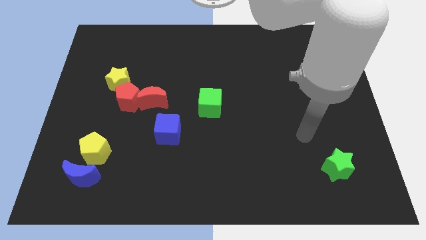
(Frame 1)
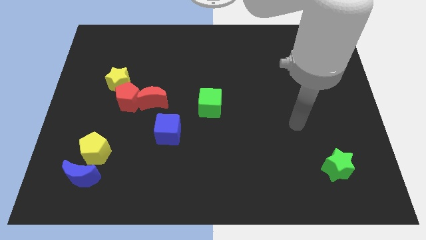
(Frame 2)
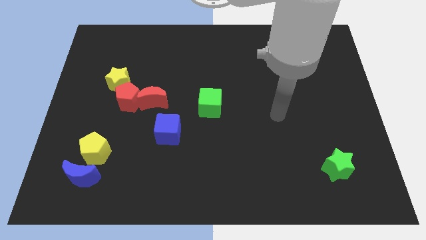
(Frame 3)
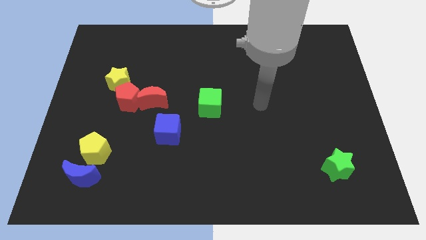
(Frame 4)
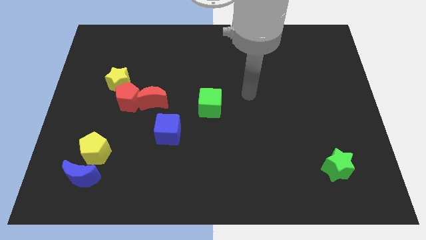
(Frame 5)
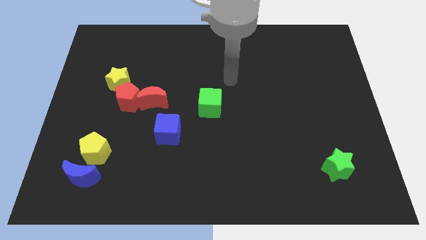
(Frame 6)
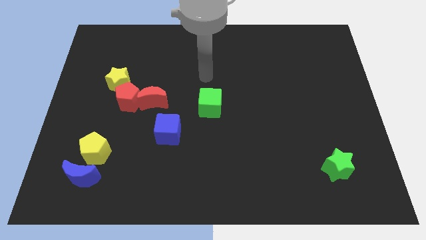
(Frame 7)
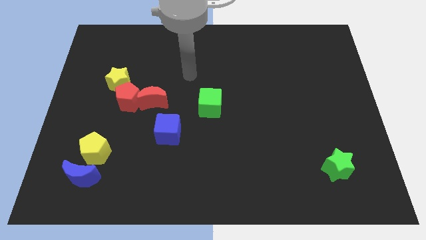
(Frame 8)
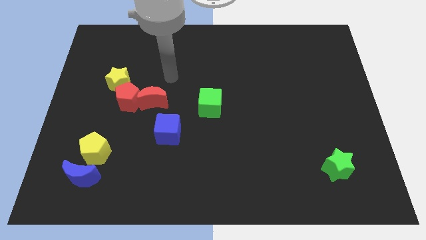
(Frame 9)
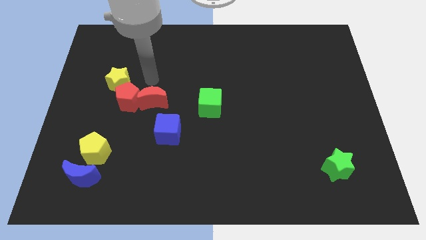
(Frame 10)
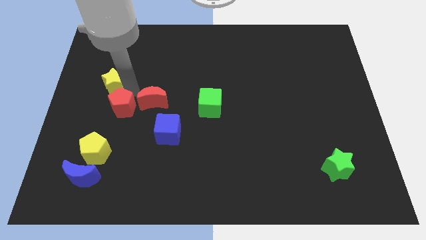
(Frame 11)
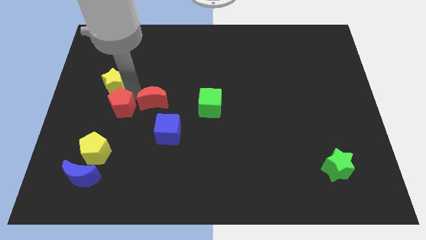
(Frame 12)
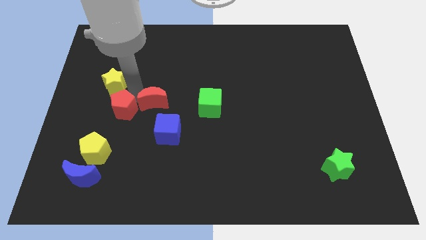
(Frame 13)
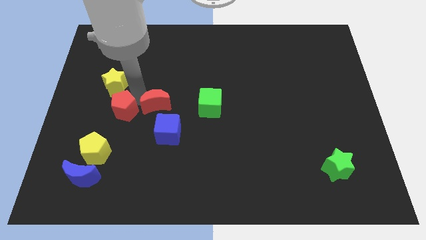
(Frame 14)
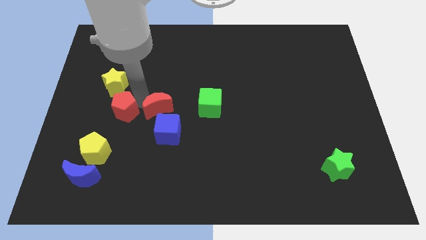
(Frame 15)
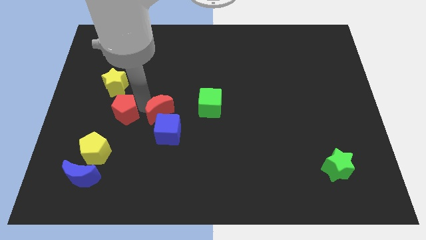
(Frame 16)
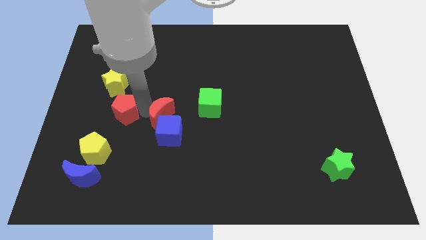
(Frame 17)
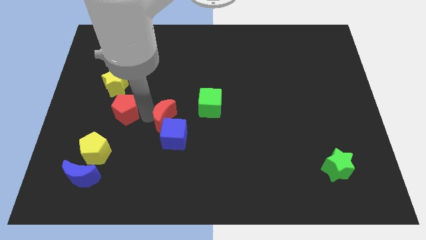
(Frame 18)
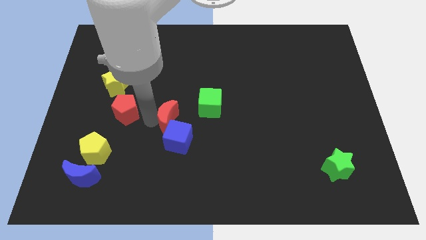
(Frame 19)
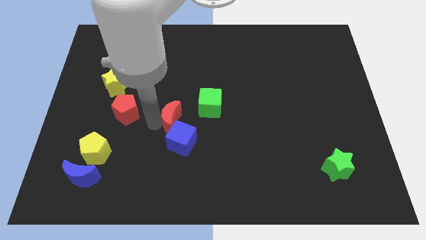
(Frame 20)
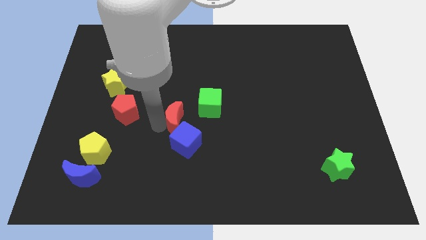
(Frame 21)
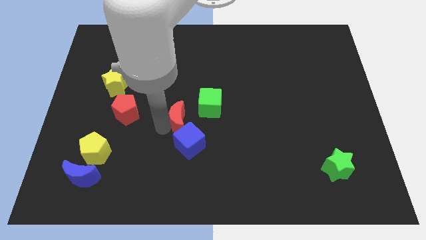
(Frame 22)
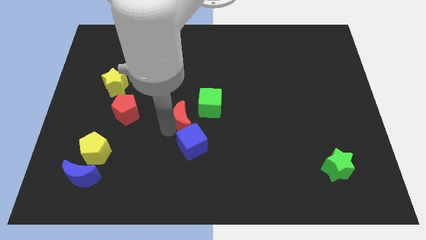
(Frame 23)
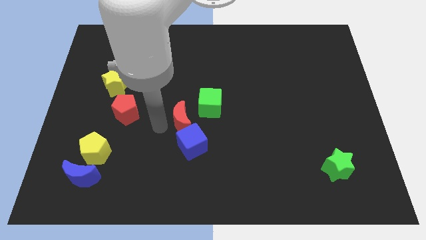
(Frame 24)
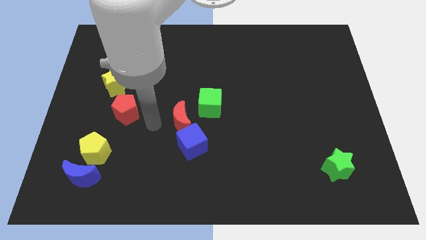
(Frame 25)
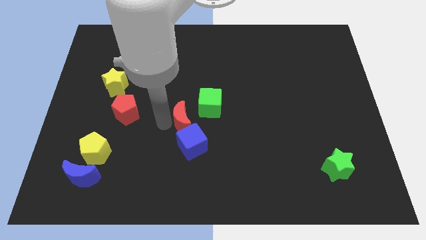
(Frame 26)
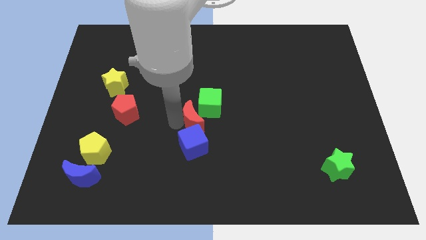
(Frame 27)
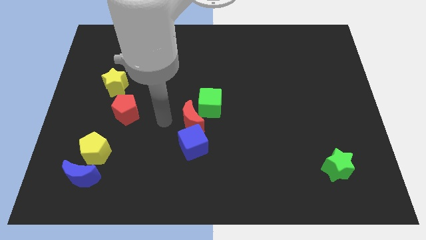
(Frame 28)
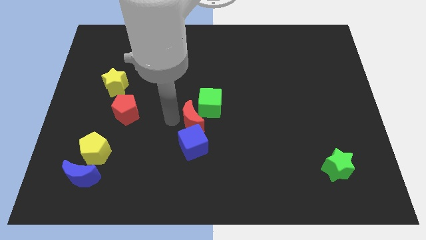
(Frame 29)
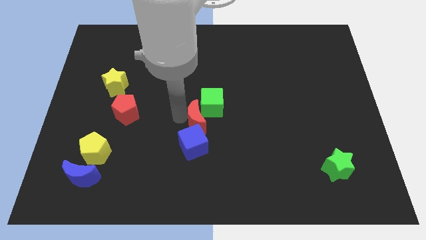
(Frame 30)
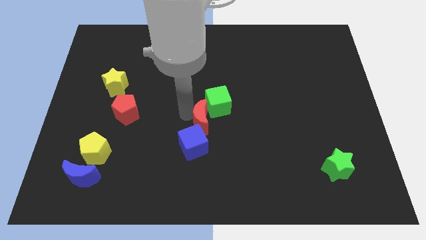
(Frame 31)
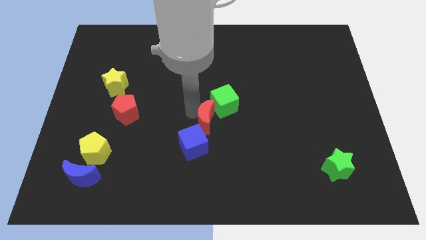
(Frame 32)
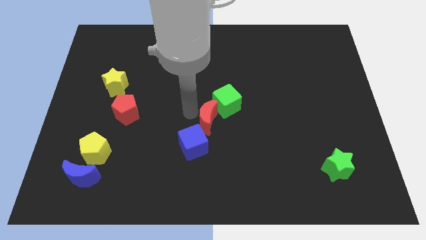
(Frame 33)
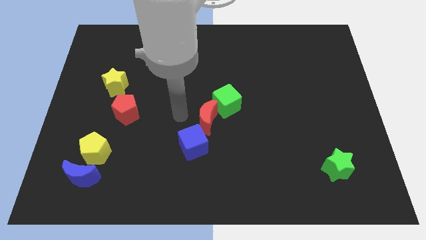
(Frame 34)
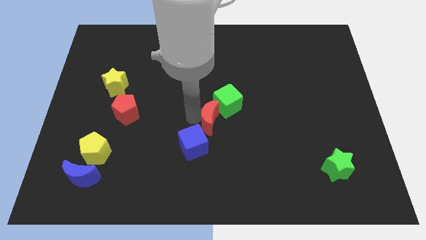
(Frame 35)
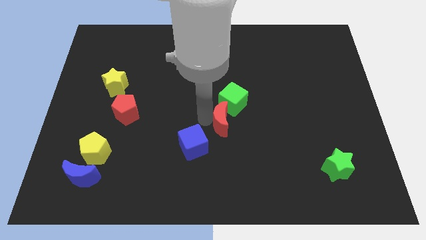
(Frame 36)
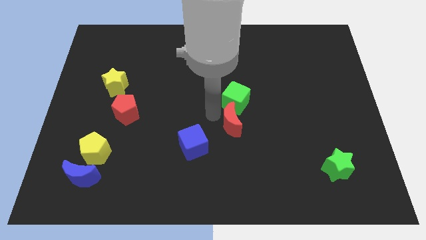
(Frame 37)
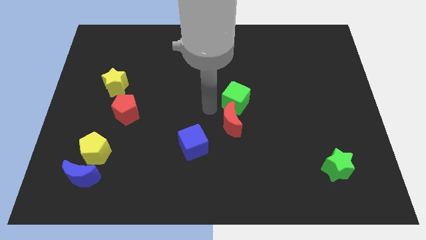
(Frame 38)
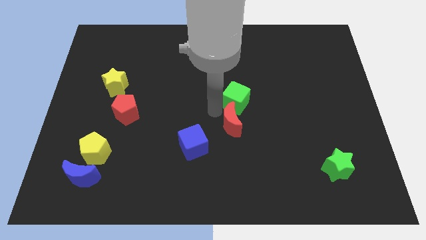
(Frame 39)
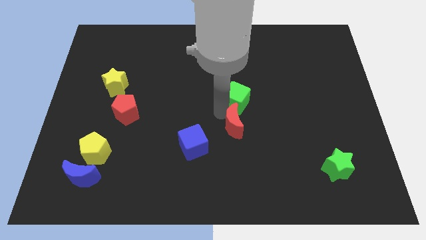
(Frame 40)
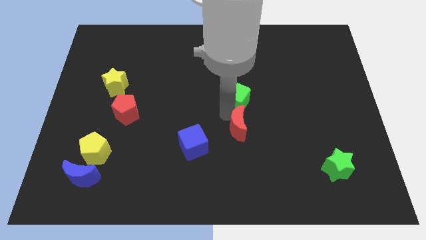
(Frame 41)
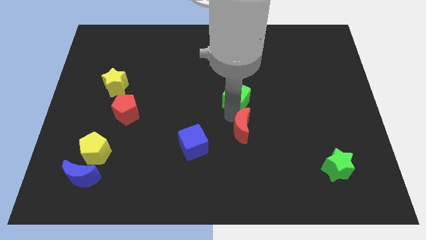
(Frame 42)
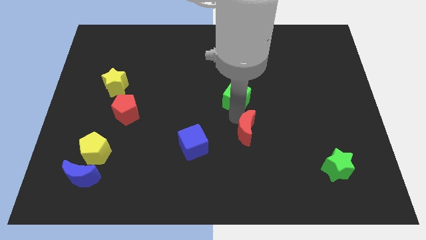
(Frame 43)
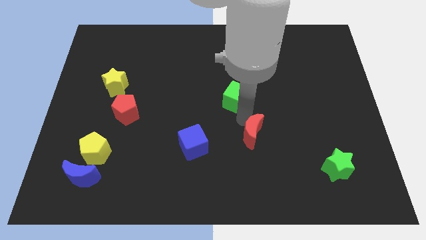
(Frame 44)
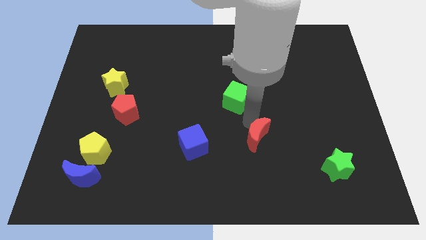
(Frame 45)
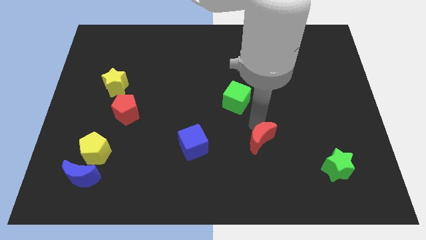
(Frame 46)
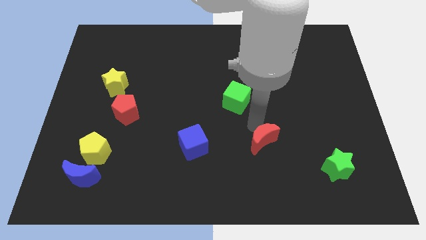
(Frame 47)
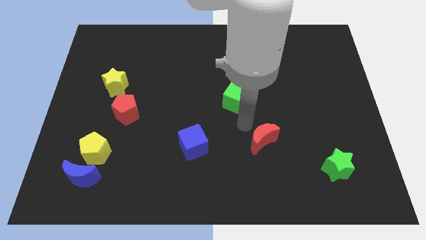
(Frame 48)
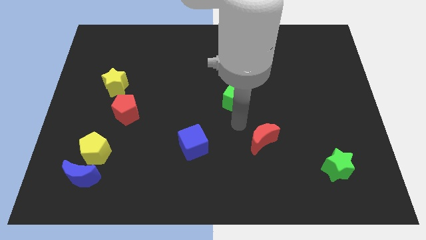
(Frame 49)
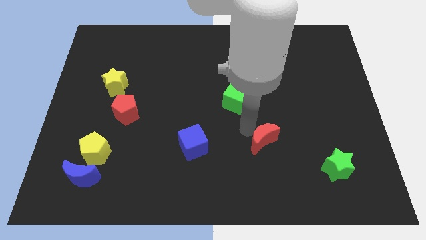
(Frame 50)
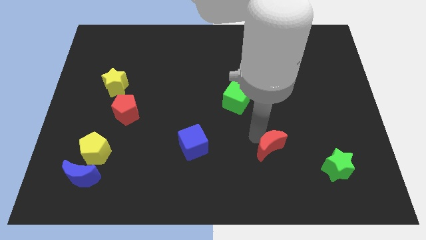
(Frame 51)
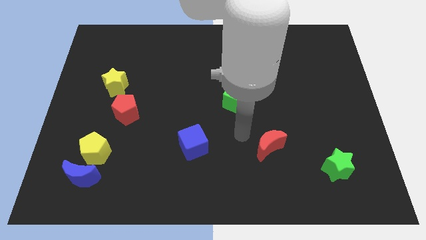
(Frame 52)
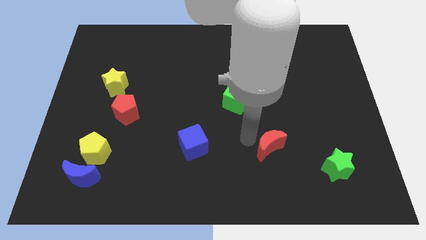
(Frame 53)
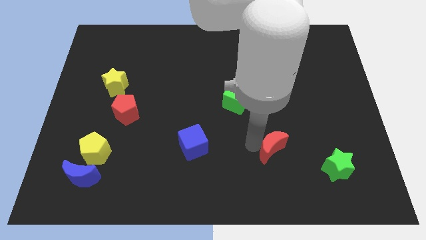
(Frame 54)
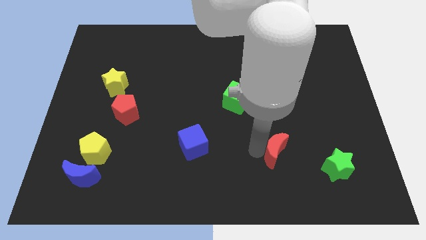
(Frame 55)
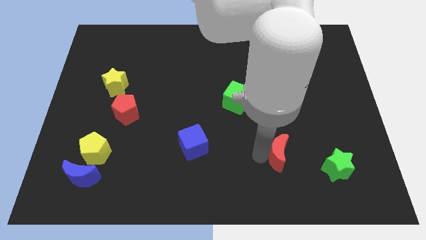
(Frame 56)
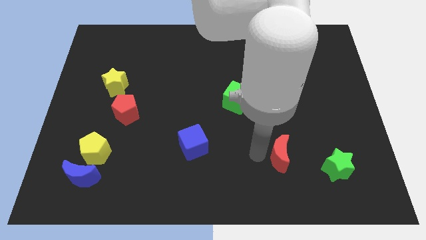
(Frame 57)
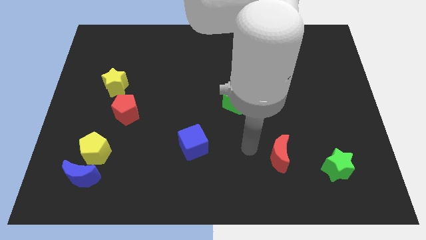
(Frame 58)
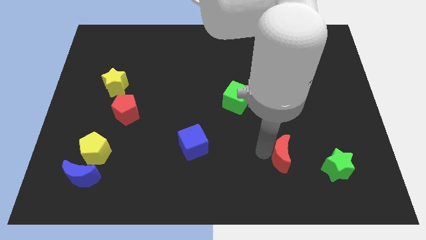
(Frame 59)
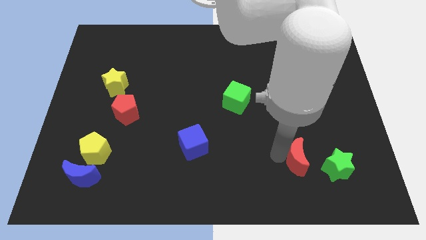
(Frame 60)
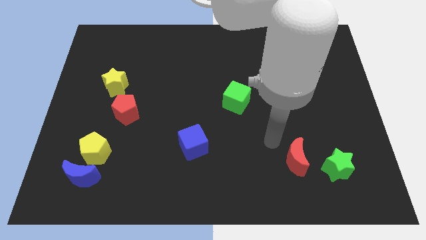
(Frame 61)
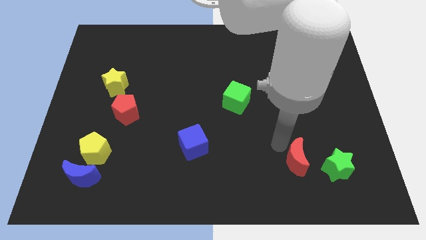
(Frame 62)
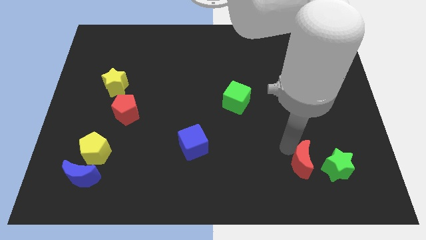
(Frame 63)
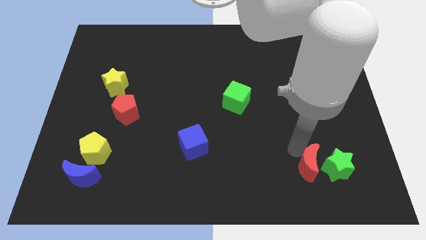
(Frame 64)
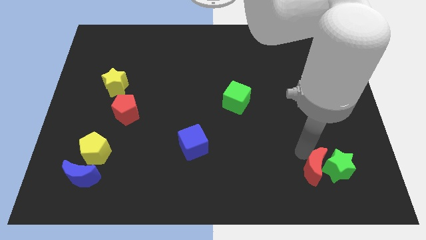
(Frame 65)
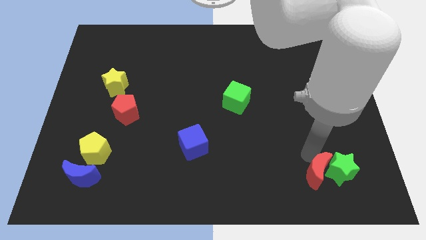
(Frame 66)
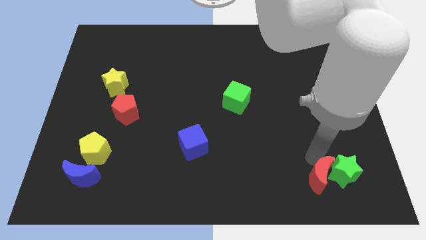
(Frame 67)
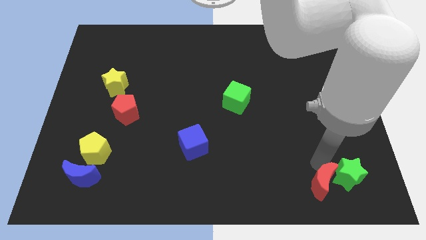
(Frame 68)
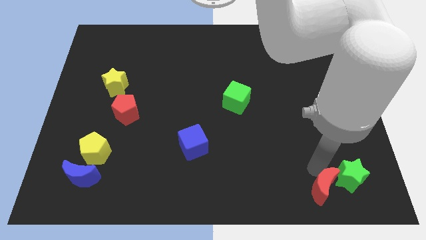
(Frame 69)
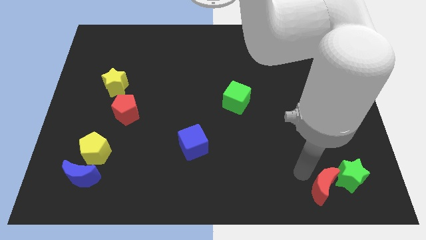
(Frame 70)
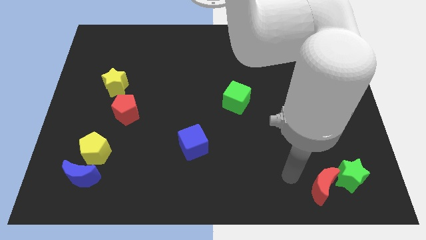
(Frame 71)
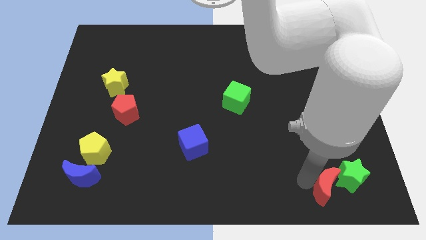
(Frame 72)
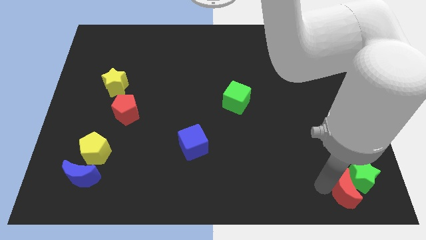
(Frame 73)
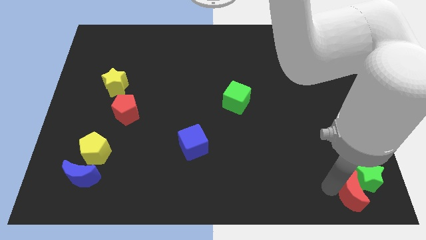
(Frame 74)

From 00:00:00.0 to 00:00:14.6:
slide the red moon to the lower right corner
